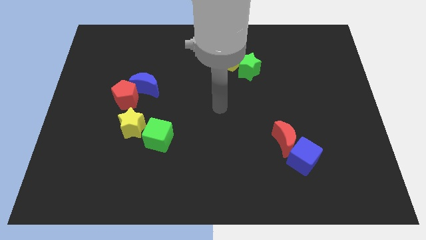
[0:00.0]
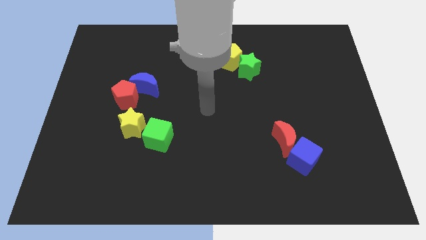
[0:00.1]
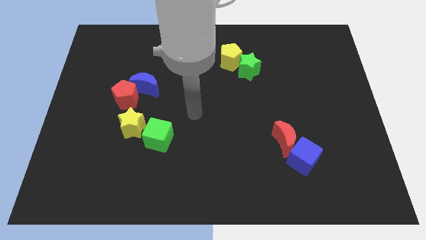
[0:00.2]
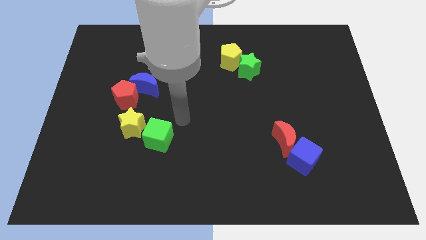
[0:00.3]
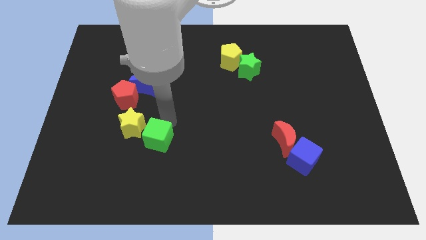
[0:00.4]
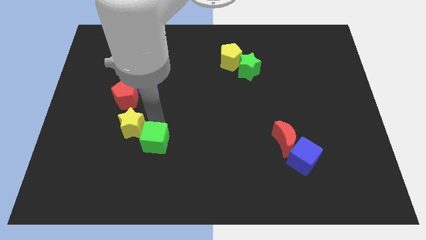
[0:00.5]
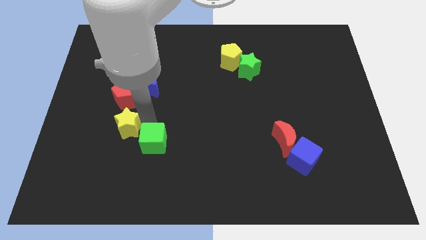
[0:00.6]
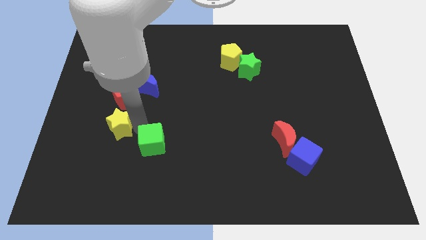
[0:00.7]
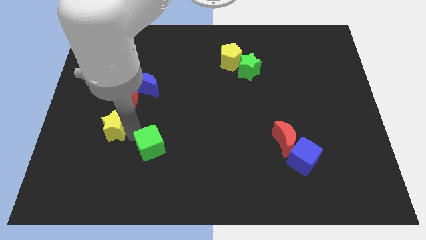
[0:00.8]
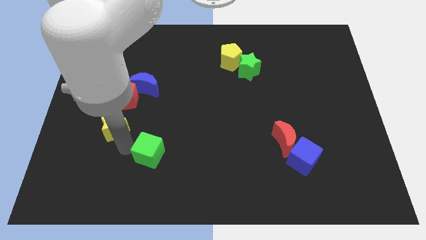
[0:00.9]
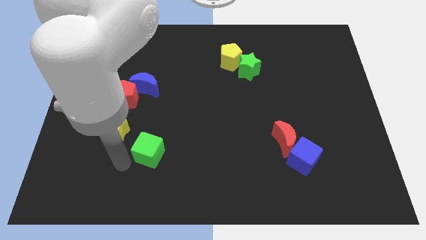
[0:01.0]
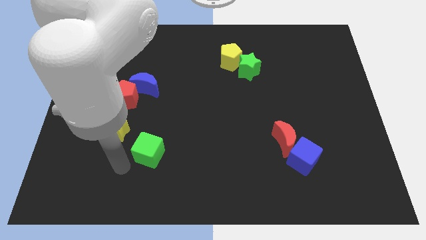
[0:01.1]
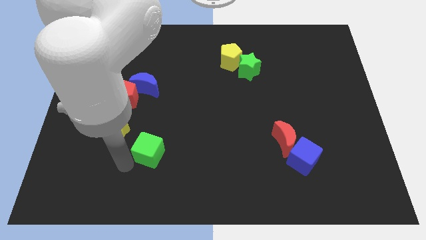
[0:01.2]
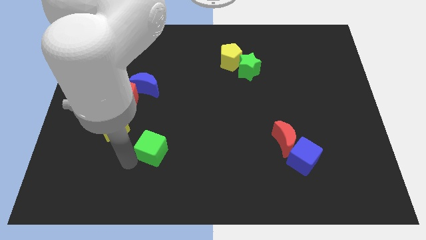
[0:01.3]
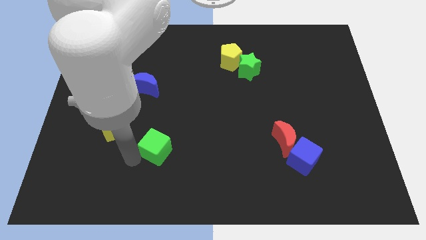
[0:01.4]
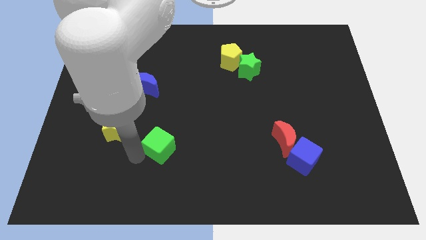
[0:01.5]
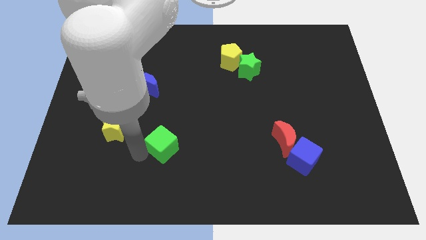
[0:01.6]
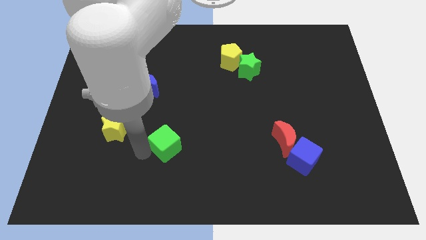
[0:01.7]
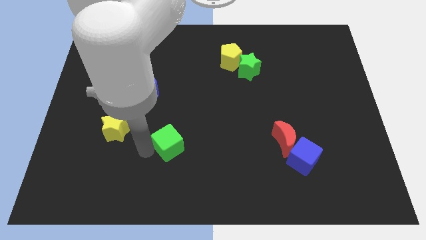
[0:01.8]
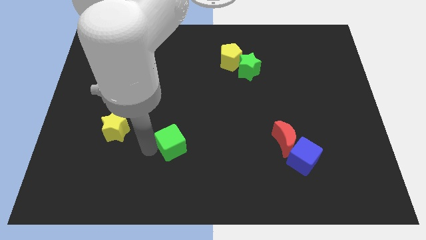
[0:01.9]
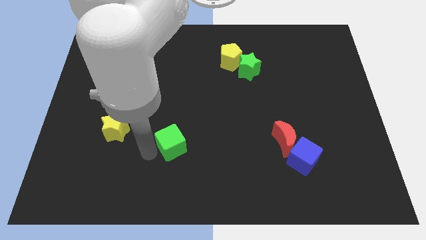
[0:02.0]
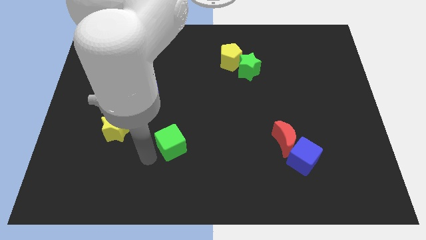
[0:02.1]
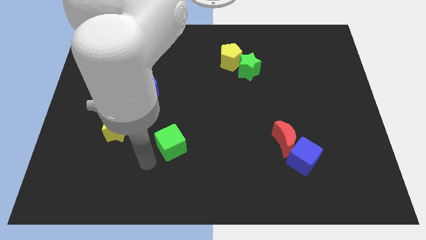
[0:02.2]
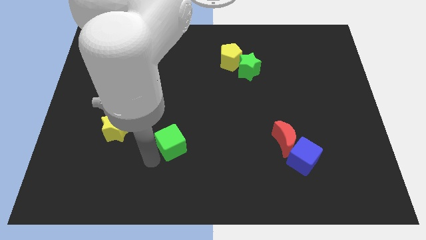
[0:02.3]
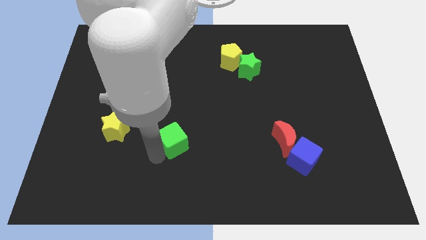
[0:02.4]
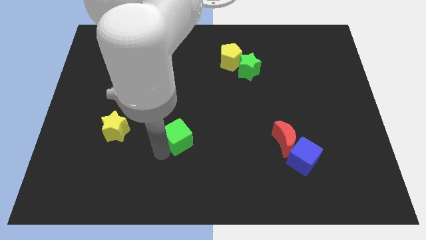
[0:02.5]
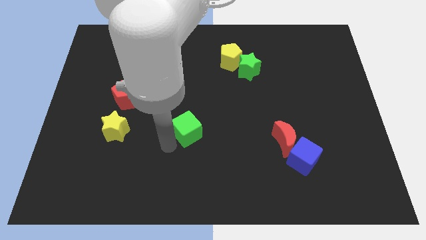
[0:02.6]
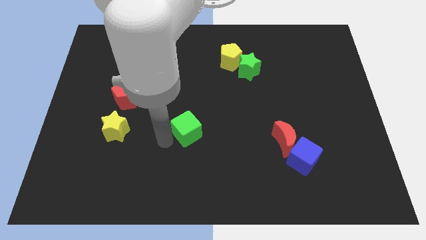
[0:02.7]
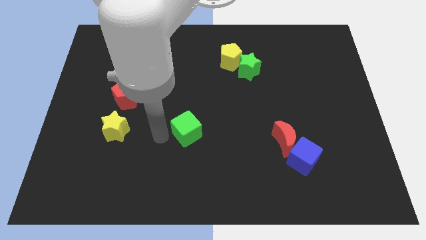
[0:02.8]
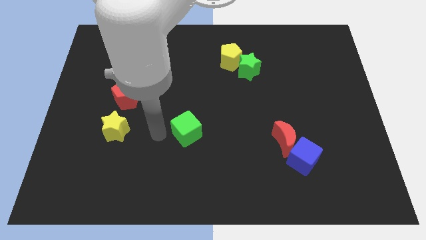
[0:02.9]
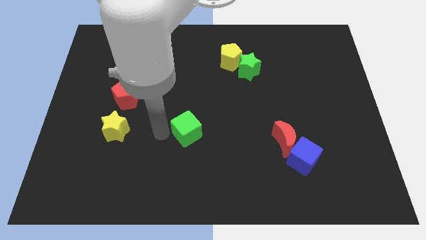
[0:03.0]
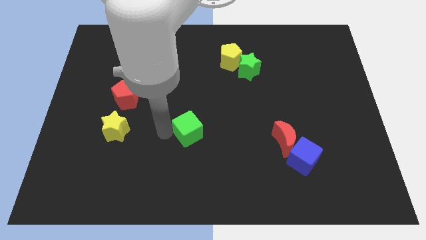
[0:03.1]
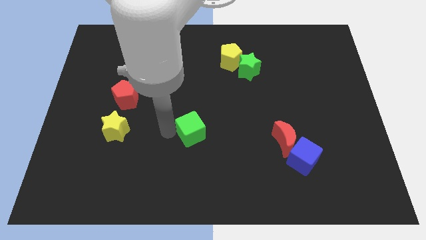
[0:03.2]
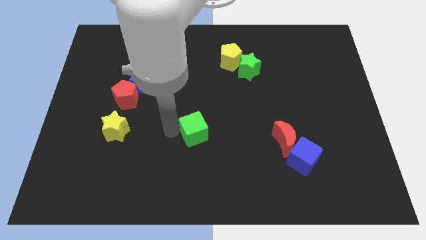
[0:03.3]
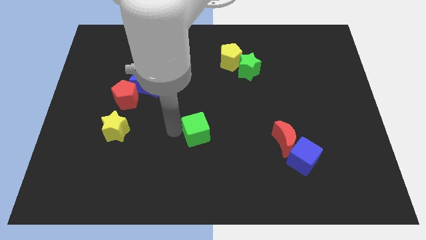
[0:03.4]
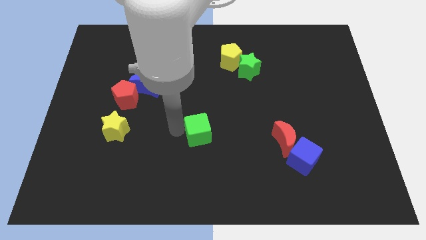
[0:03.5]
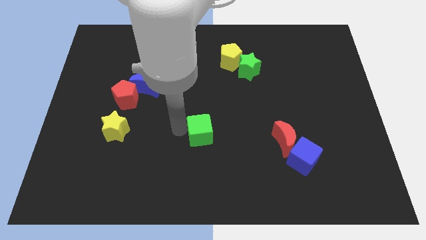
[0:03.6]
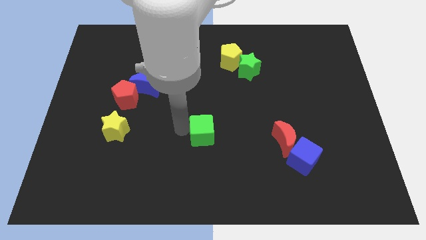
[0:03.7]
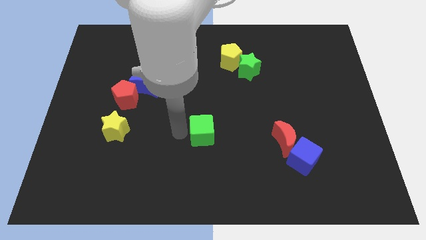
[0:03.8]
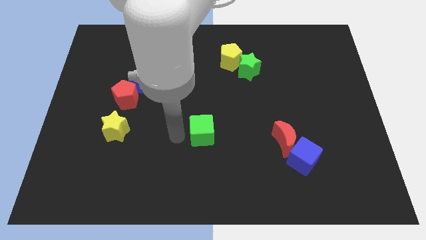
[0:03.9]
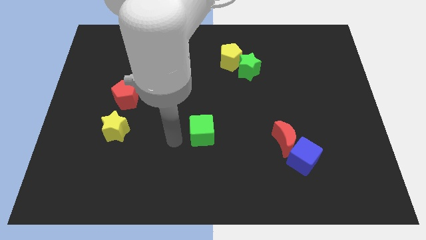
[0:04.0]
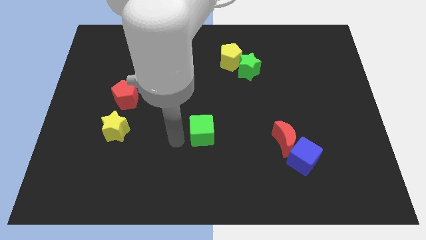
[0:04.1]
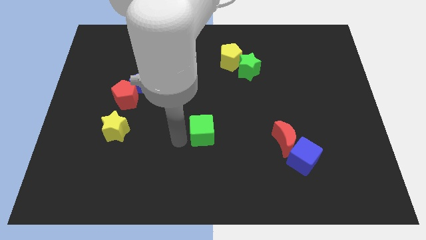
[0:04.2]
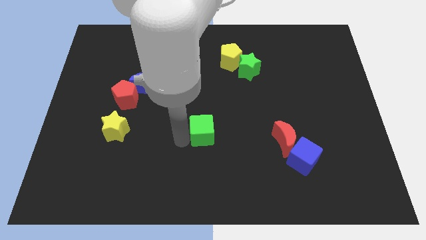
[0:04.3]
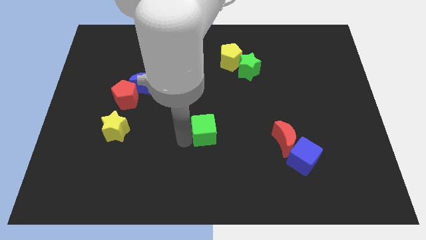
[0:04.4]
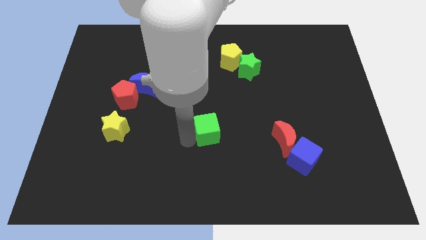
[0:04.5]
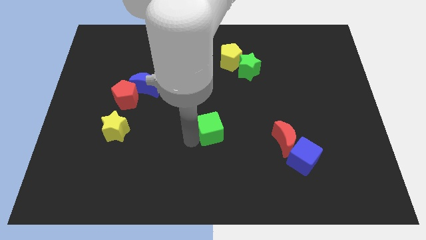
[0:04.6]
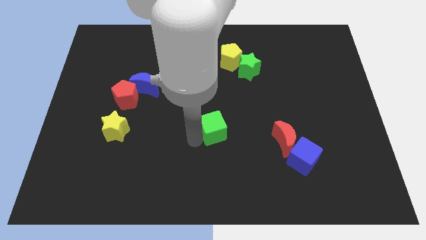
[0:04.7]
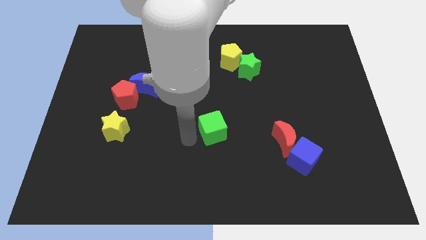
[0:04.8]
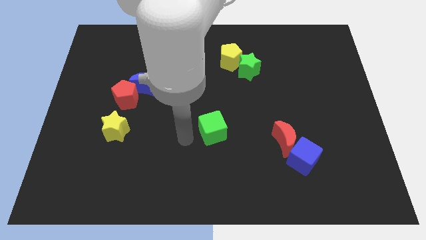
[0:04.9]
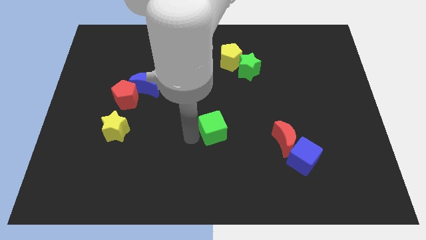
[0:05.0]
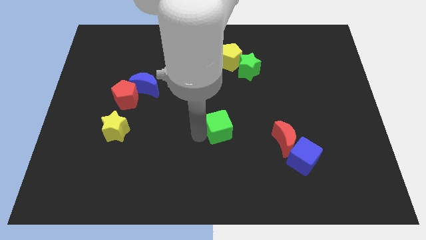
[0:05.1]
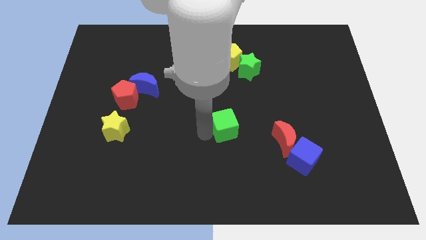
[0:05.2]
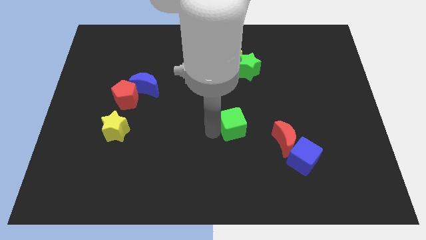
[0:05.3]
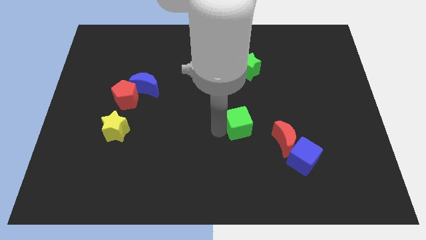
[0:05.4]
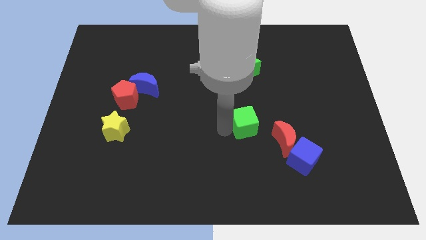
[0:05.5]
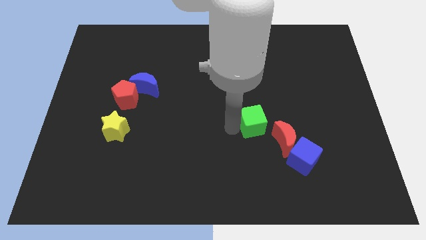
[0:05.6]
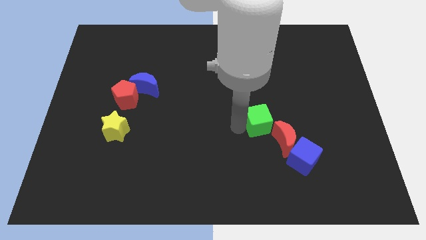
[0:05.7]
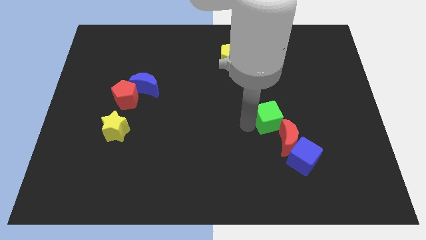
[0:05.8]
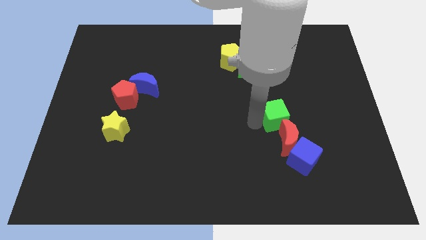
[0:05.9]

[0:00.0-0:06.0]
slide the green cube to the top of the blue cube
